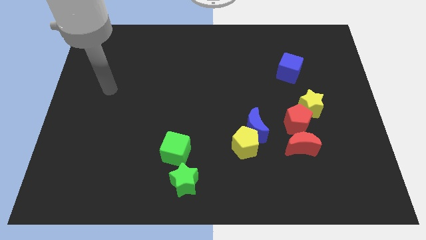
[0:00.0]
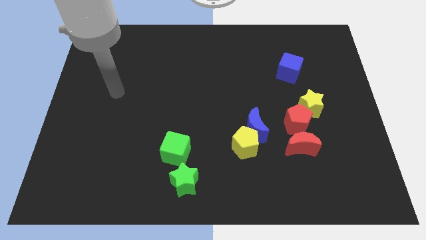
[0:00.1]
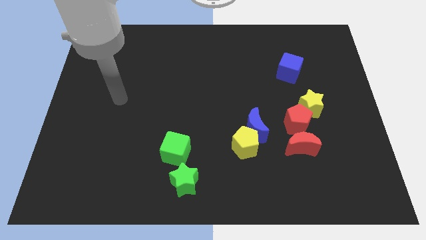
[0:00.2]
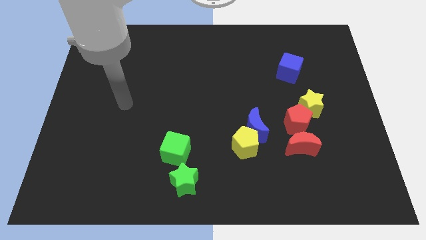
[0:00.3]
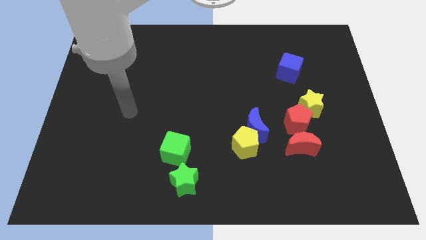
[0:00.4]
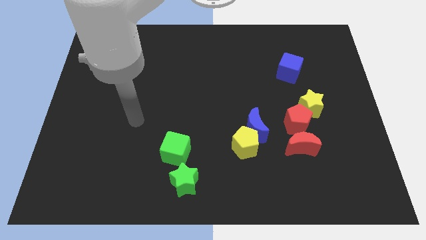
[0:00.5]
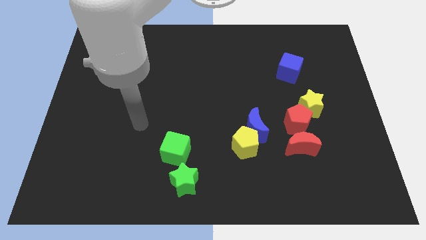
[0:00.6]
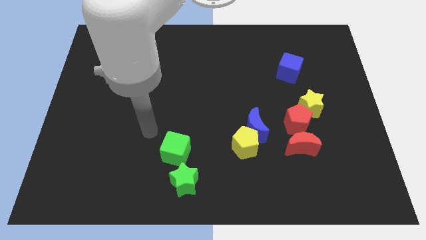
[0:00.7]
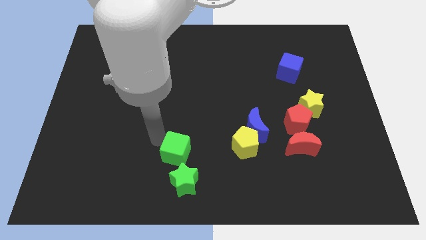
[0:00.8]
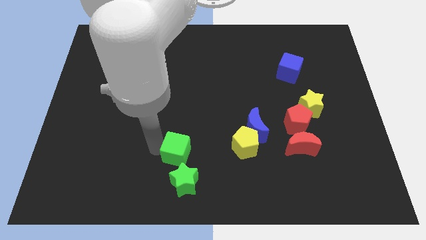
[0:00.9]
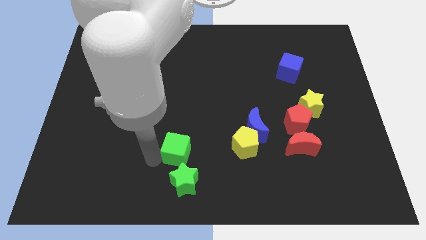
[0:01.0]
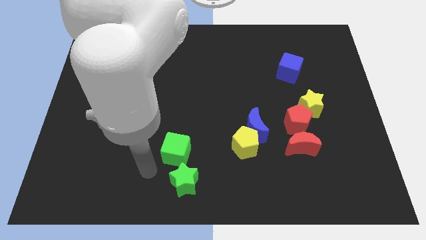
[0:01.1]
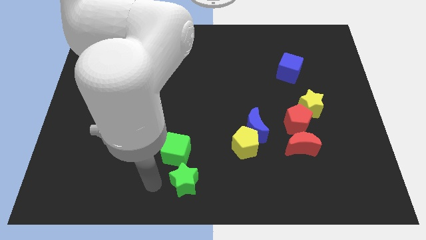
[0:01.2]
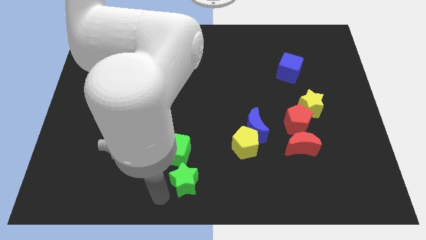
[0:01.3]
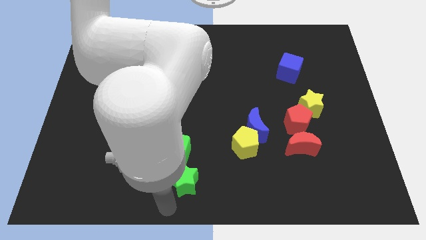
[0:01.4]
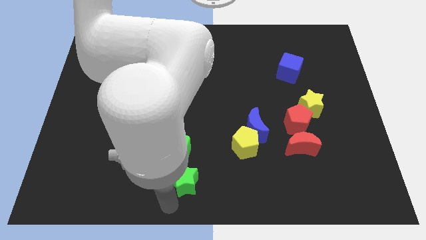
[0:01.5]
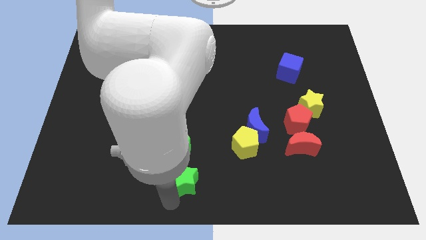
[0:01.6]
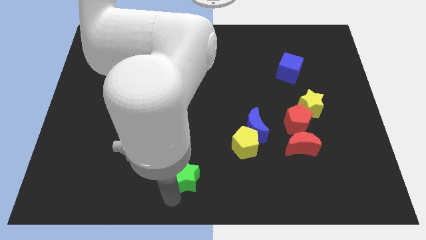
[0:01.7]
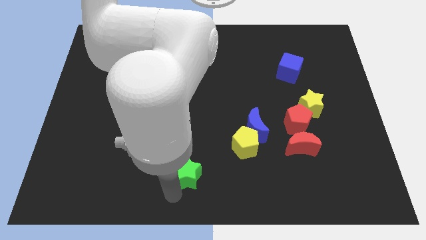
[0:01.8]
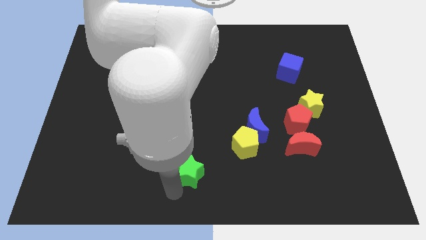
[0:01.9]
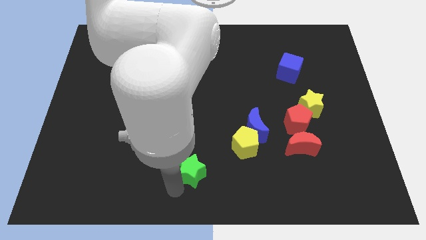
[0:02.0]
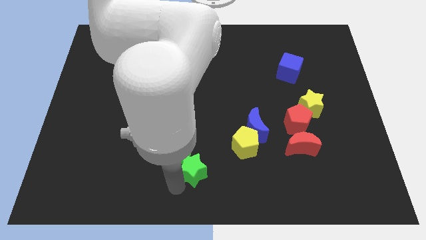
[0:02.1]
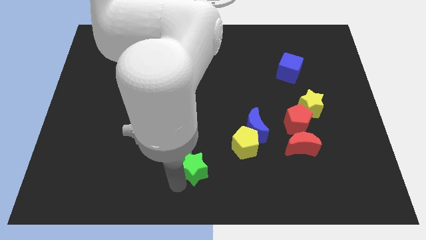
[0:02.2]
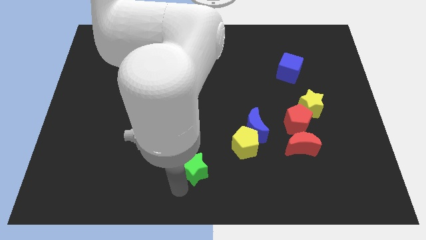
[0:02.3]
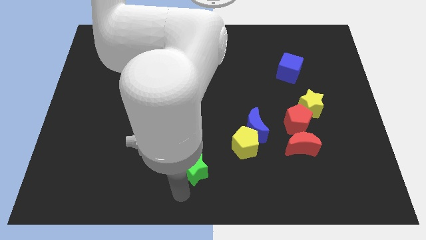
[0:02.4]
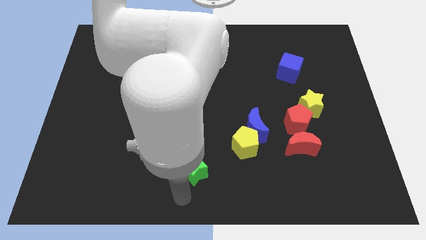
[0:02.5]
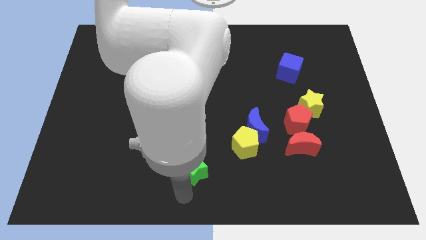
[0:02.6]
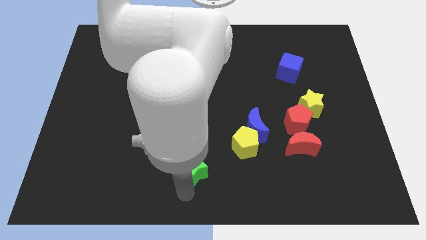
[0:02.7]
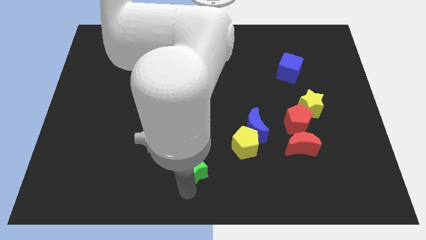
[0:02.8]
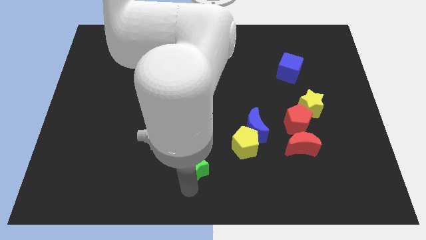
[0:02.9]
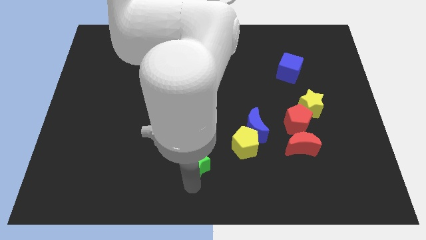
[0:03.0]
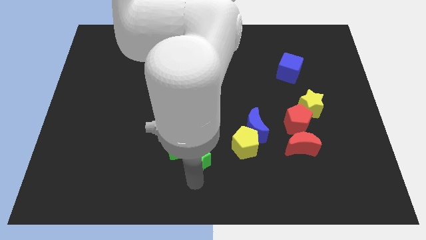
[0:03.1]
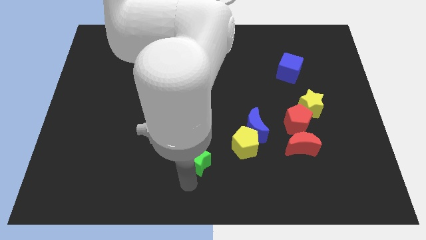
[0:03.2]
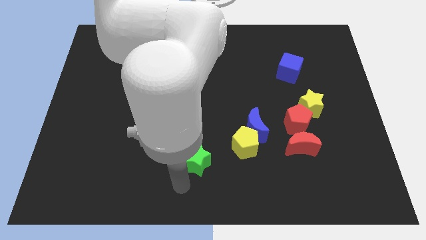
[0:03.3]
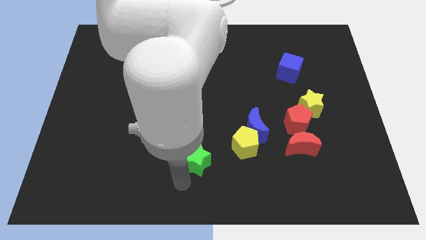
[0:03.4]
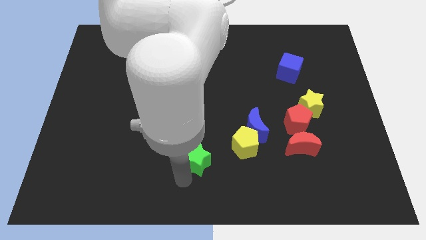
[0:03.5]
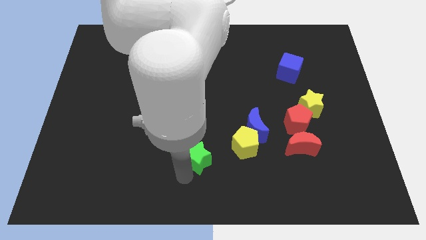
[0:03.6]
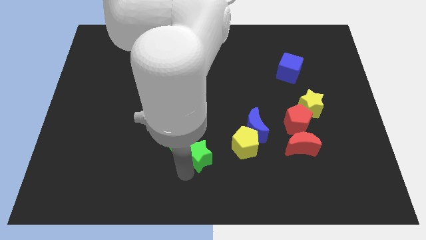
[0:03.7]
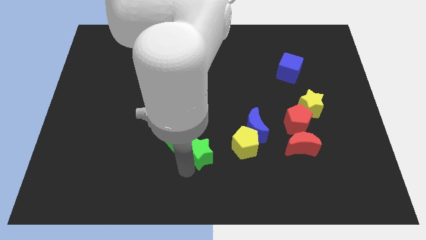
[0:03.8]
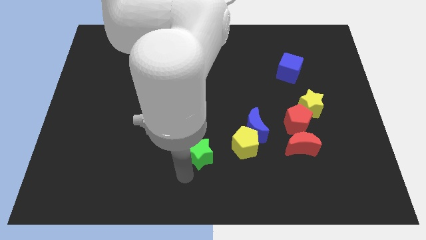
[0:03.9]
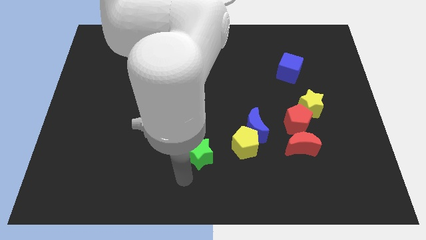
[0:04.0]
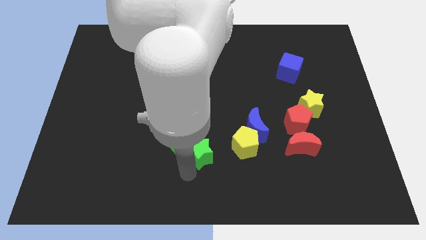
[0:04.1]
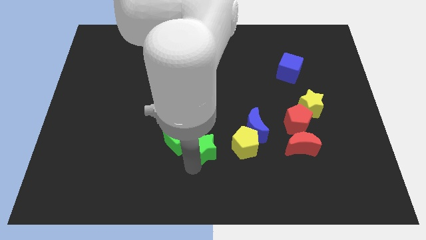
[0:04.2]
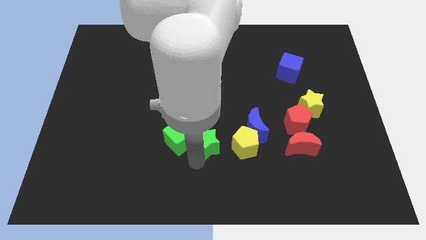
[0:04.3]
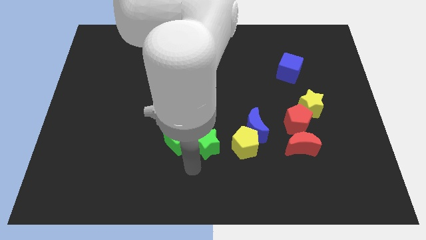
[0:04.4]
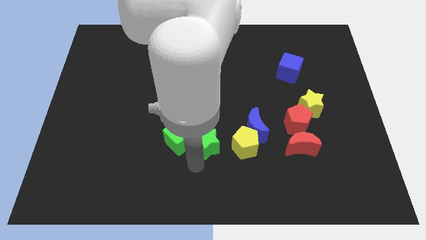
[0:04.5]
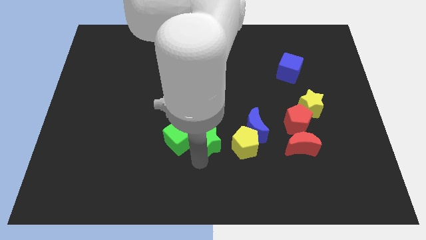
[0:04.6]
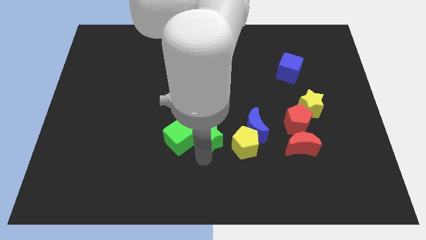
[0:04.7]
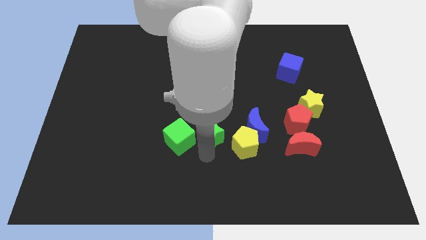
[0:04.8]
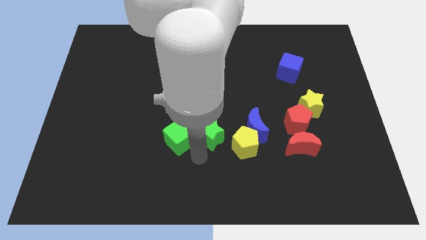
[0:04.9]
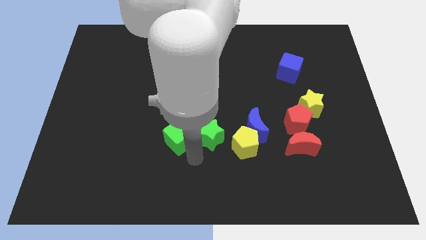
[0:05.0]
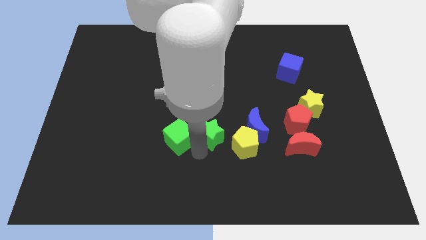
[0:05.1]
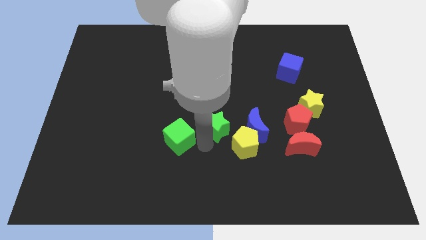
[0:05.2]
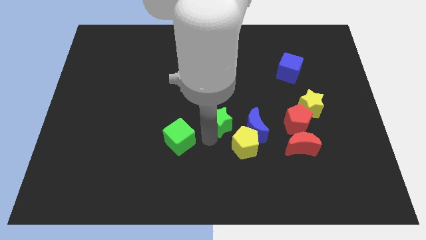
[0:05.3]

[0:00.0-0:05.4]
put the green star to the top left side of the blue moon
